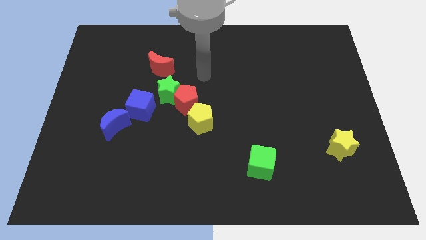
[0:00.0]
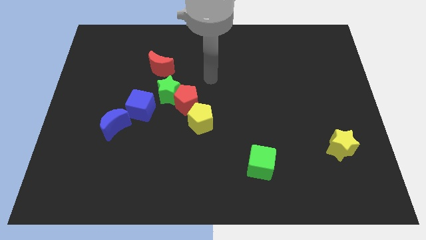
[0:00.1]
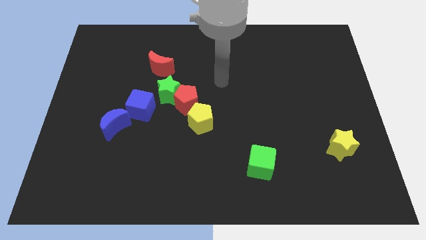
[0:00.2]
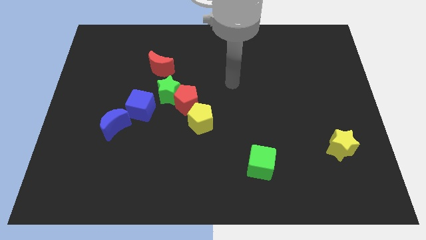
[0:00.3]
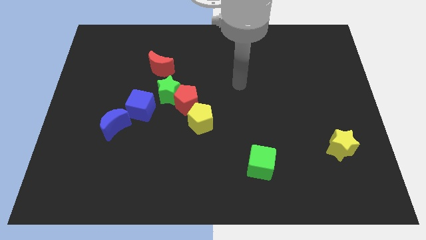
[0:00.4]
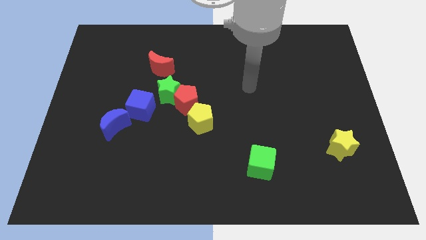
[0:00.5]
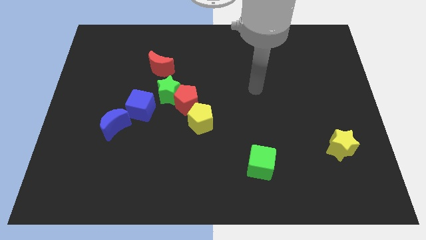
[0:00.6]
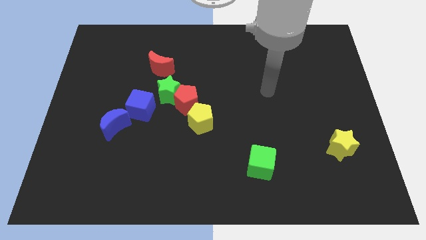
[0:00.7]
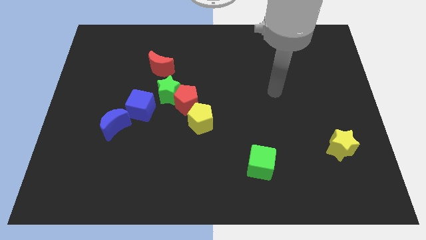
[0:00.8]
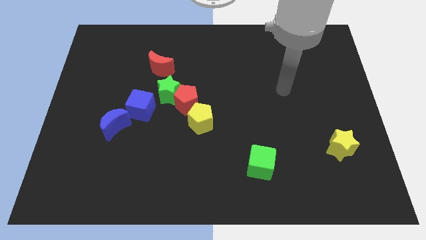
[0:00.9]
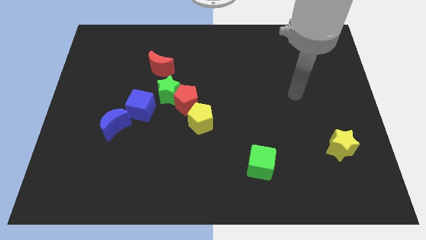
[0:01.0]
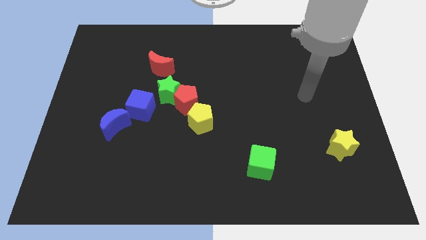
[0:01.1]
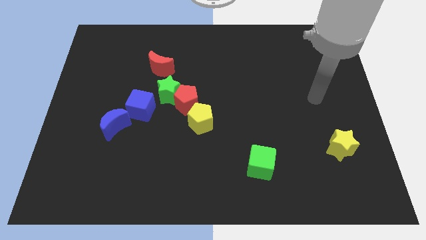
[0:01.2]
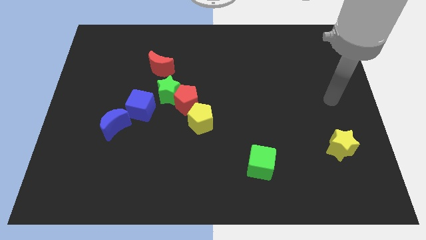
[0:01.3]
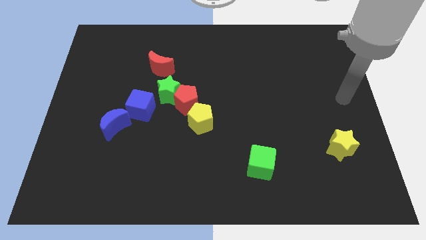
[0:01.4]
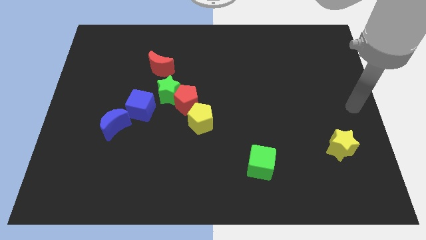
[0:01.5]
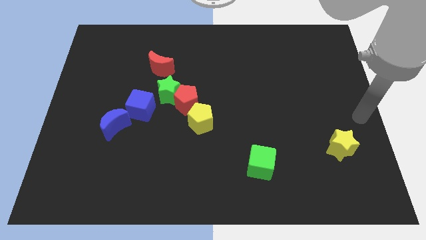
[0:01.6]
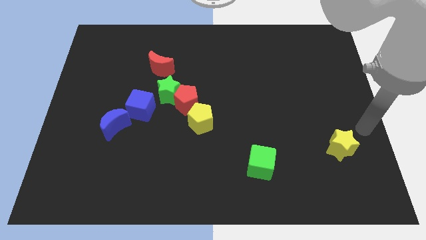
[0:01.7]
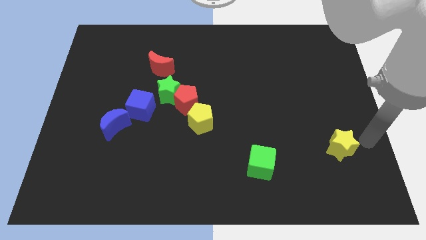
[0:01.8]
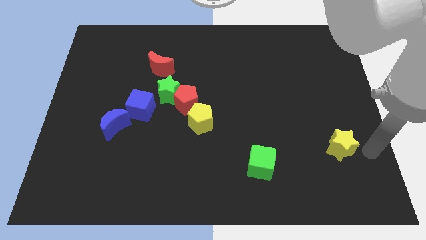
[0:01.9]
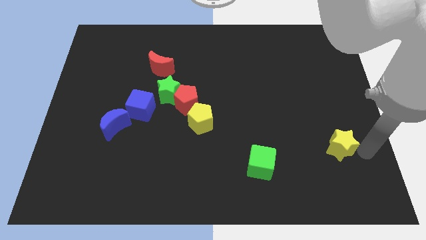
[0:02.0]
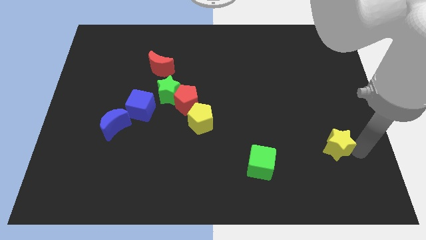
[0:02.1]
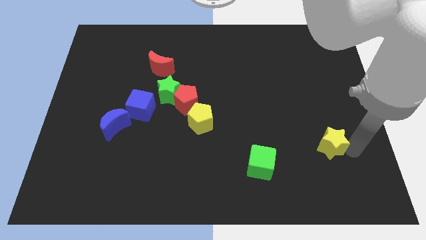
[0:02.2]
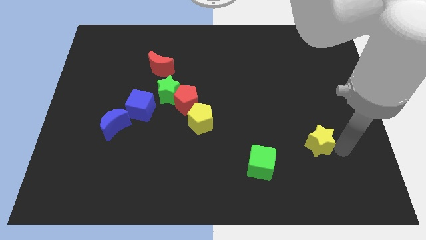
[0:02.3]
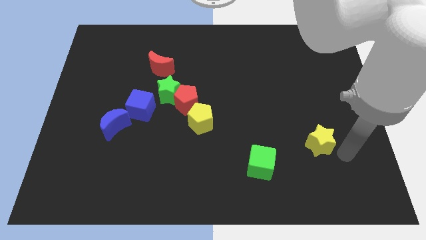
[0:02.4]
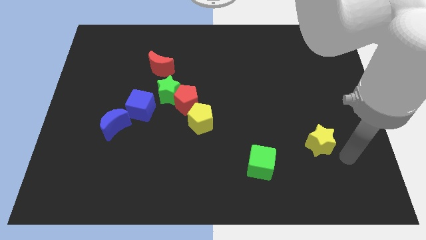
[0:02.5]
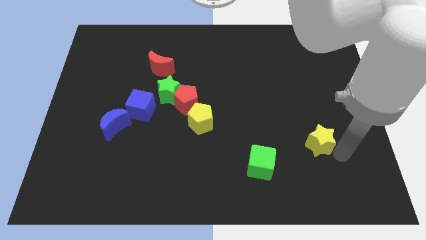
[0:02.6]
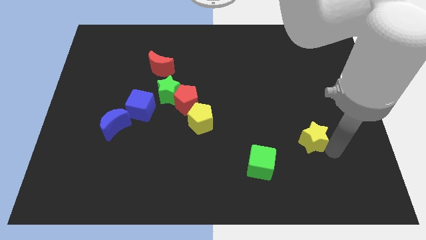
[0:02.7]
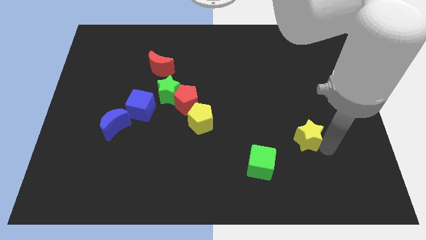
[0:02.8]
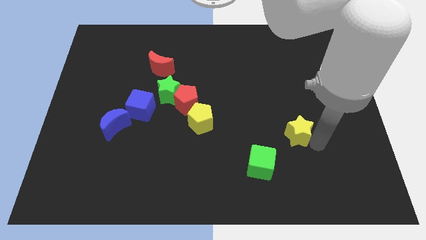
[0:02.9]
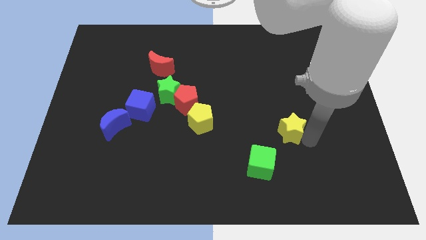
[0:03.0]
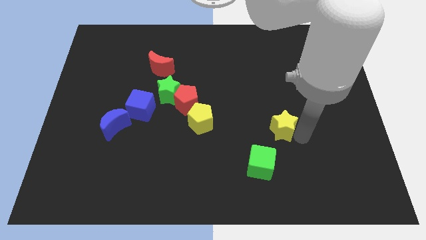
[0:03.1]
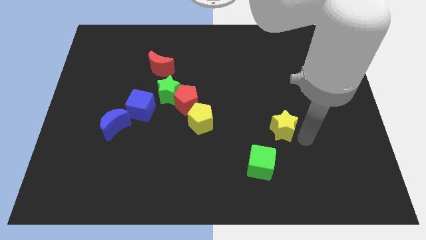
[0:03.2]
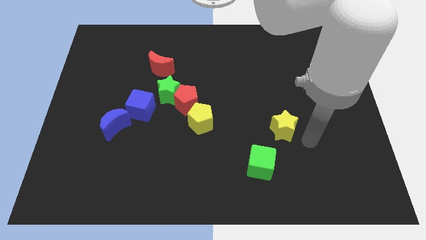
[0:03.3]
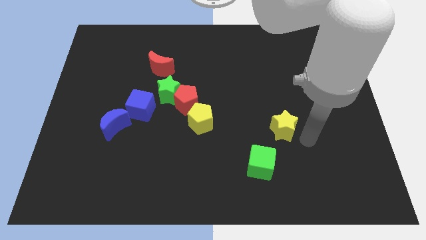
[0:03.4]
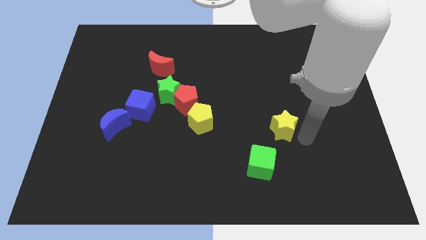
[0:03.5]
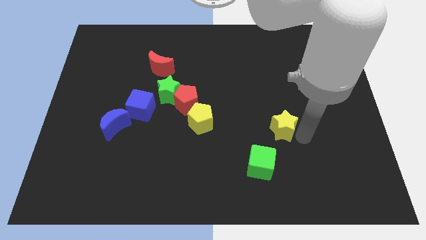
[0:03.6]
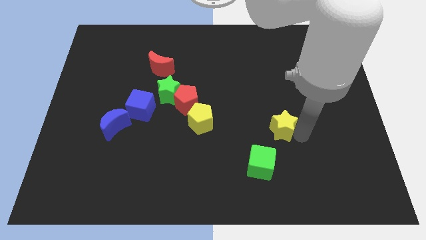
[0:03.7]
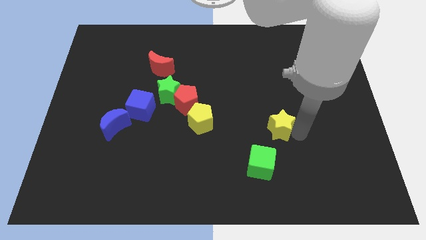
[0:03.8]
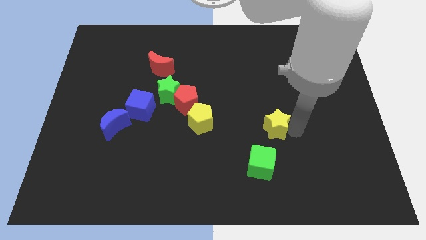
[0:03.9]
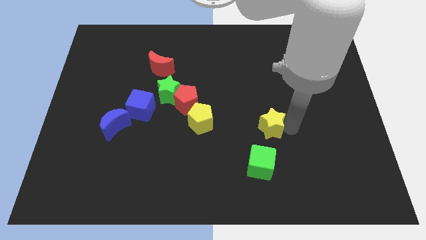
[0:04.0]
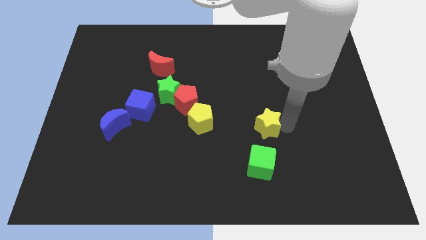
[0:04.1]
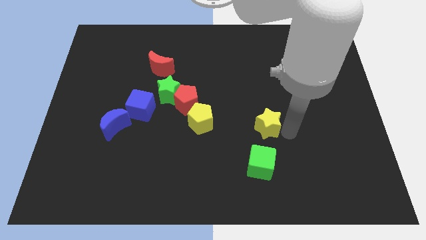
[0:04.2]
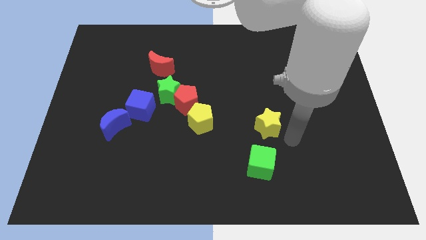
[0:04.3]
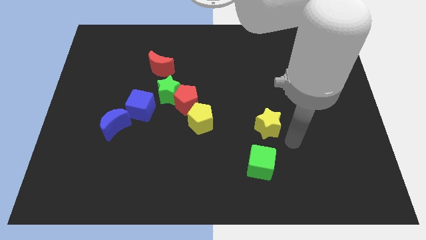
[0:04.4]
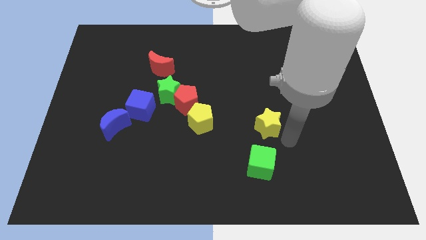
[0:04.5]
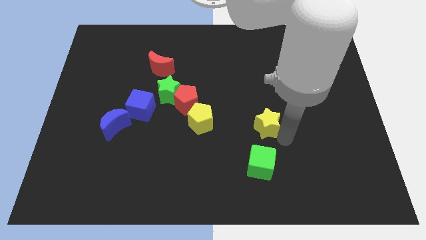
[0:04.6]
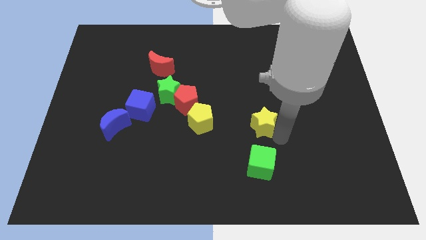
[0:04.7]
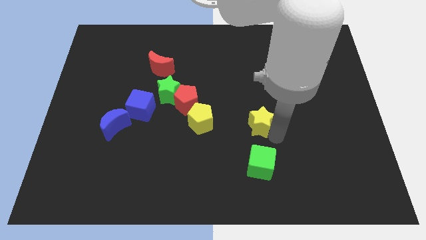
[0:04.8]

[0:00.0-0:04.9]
move the yellow star to the middle

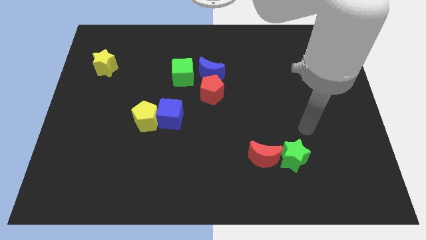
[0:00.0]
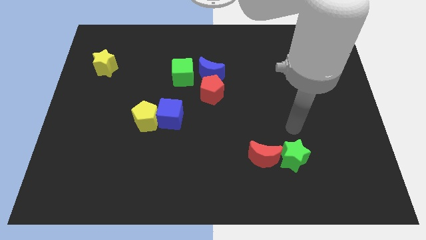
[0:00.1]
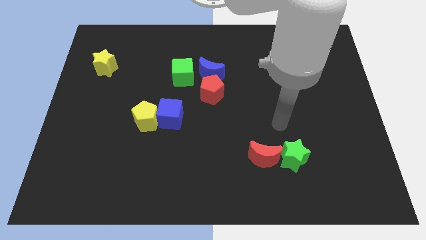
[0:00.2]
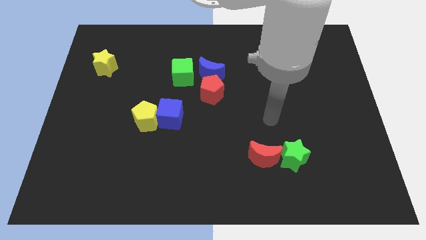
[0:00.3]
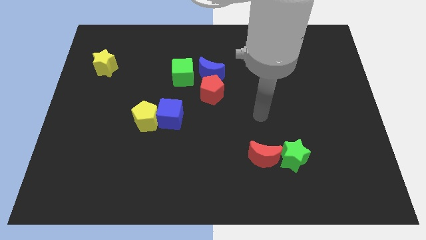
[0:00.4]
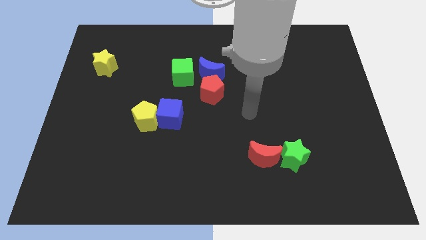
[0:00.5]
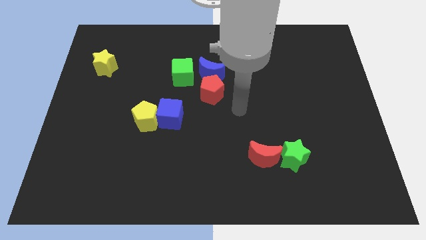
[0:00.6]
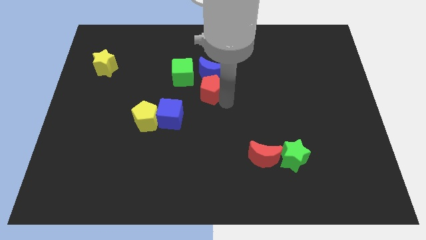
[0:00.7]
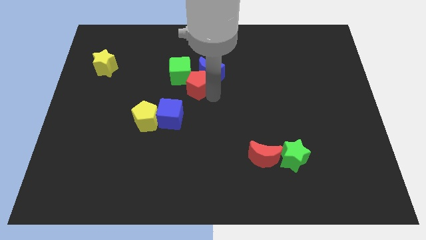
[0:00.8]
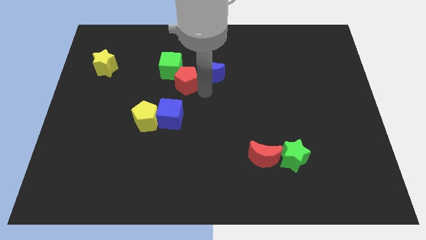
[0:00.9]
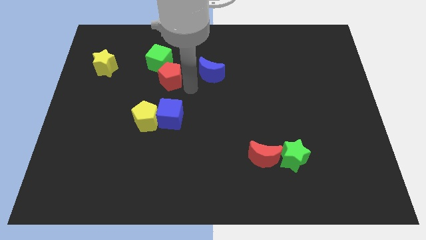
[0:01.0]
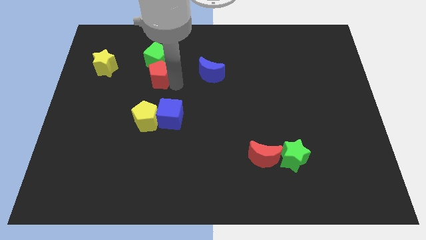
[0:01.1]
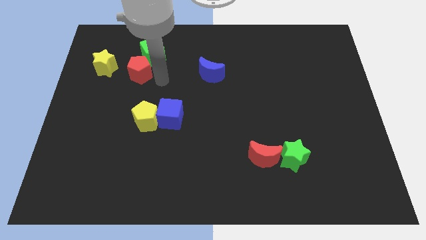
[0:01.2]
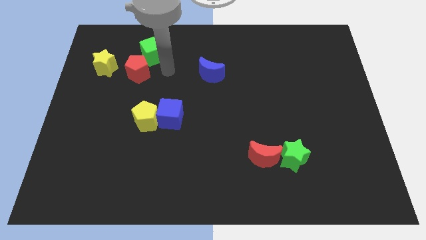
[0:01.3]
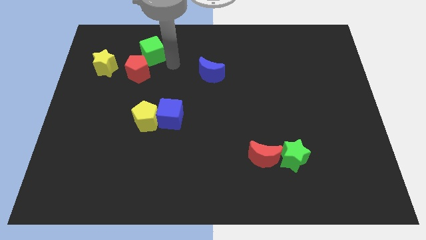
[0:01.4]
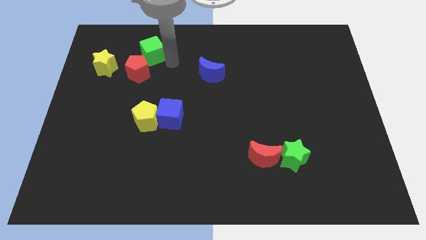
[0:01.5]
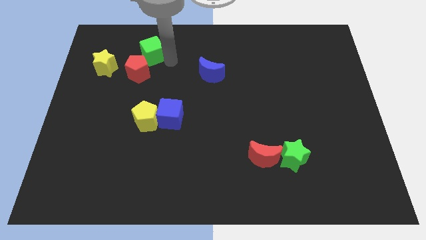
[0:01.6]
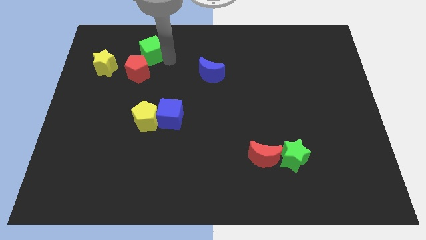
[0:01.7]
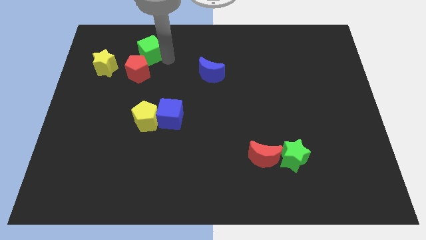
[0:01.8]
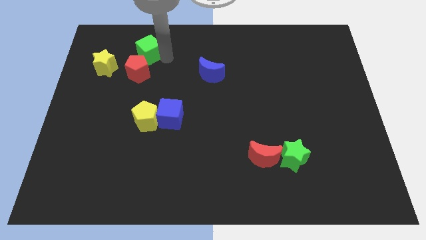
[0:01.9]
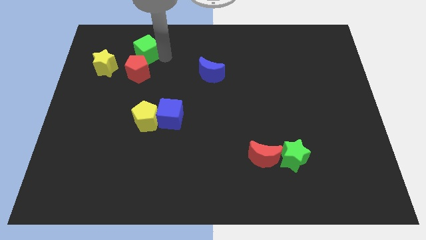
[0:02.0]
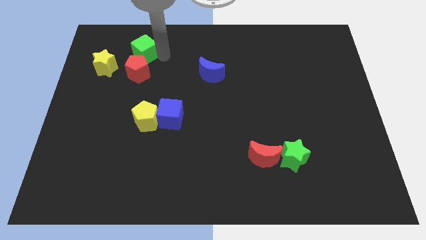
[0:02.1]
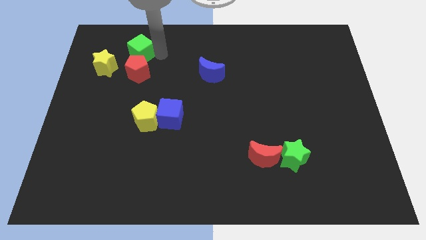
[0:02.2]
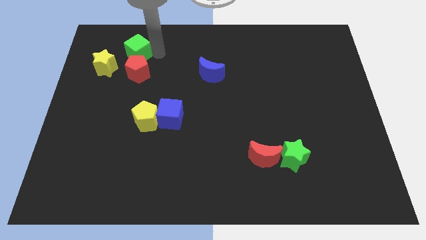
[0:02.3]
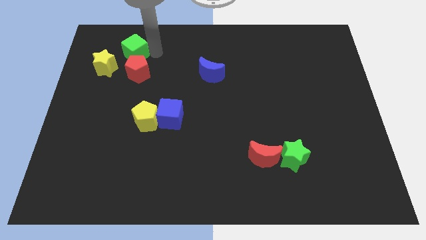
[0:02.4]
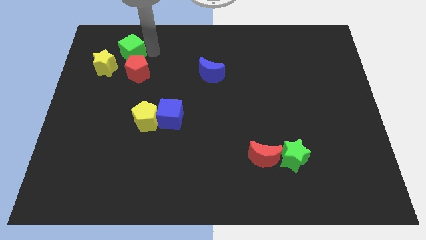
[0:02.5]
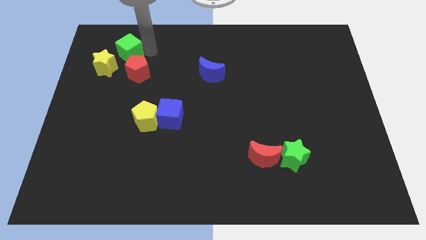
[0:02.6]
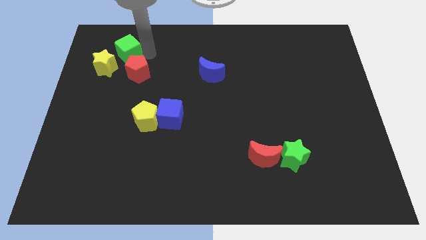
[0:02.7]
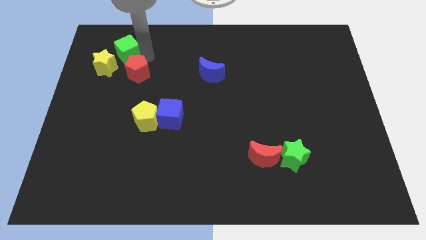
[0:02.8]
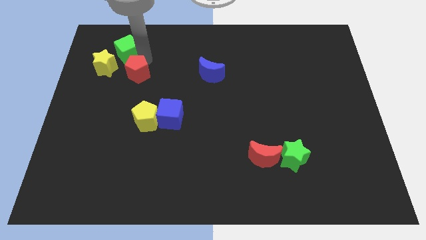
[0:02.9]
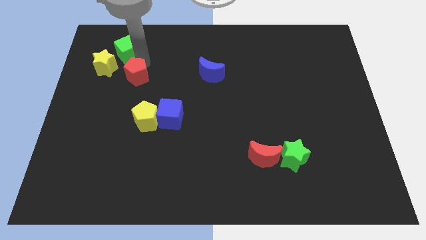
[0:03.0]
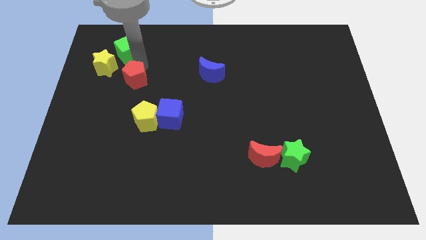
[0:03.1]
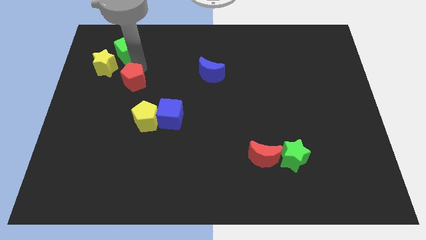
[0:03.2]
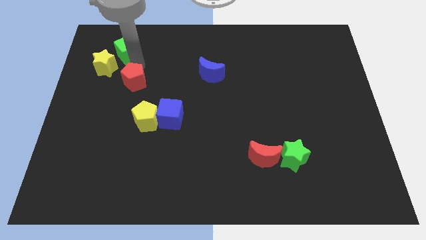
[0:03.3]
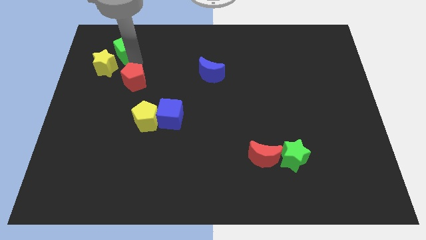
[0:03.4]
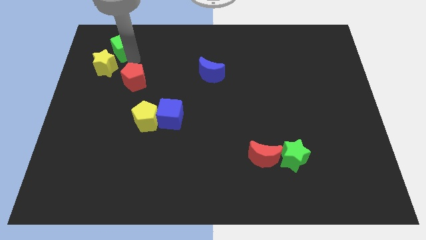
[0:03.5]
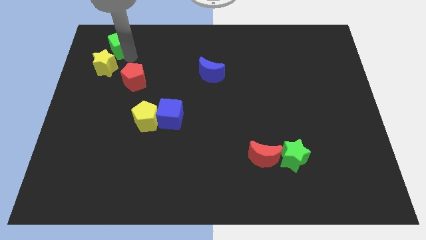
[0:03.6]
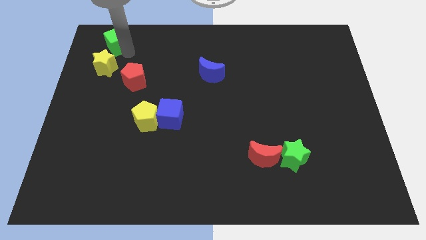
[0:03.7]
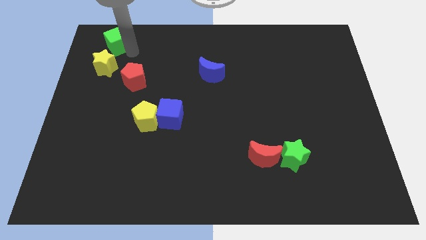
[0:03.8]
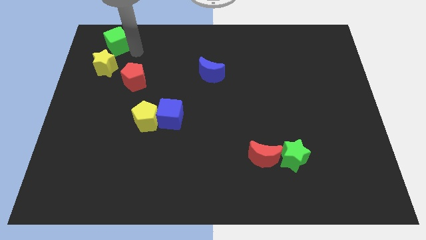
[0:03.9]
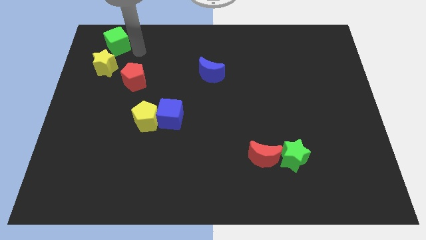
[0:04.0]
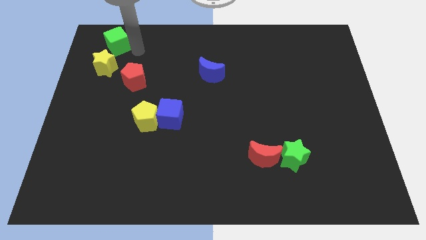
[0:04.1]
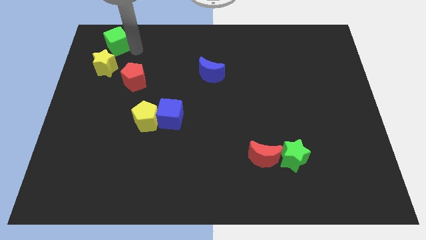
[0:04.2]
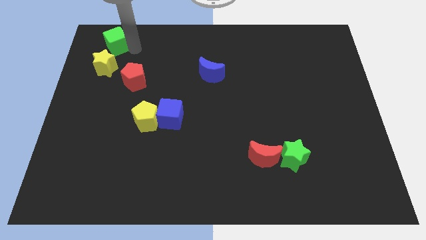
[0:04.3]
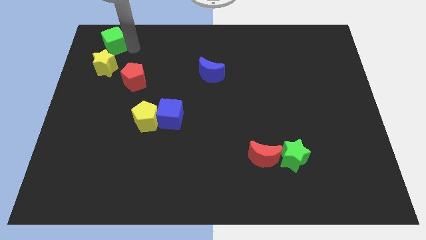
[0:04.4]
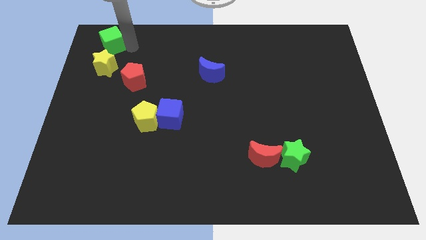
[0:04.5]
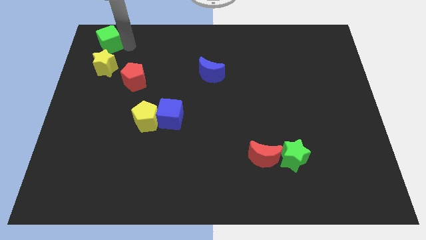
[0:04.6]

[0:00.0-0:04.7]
put the green cube to the top left of the board
